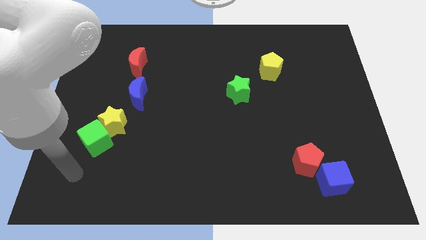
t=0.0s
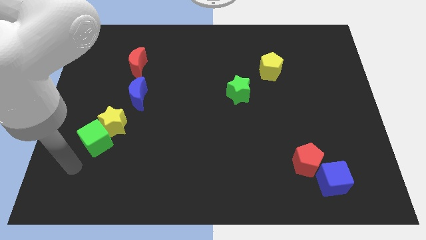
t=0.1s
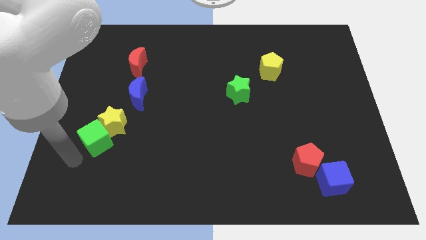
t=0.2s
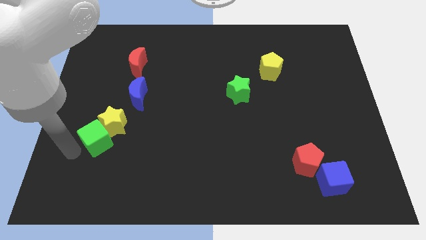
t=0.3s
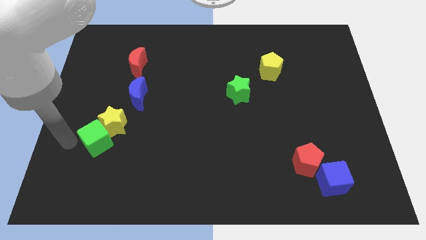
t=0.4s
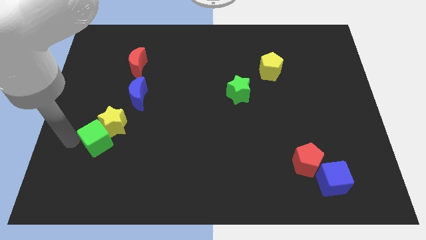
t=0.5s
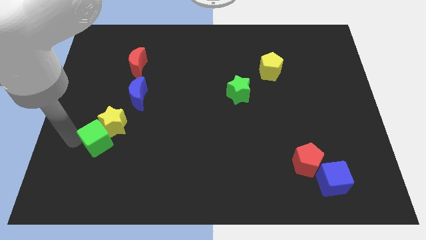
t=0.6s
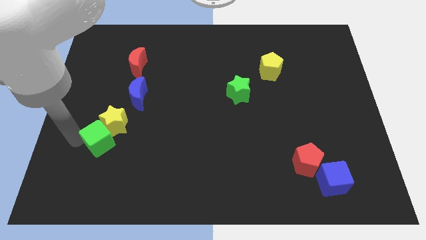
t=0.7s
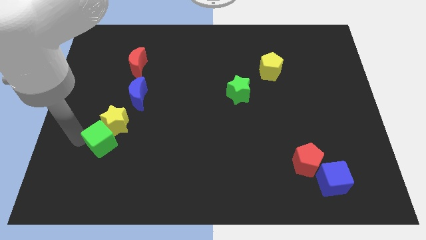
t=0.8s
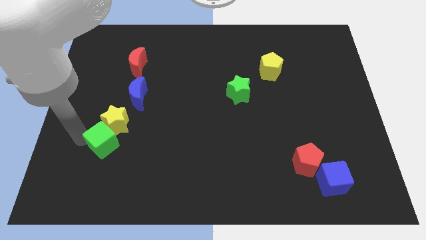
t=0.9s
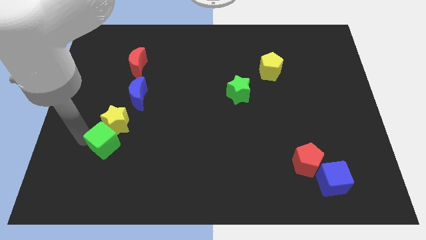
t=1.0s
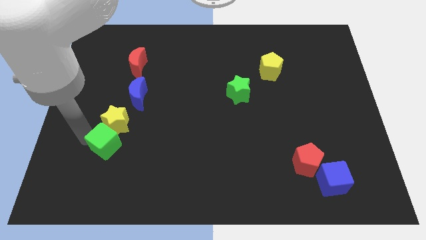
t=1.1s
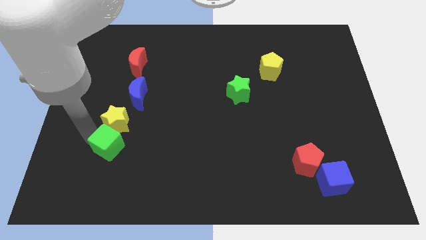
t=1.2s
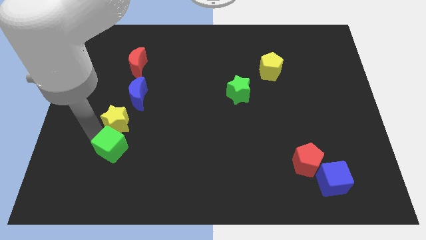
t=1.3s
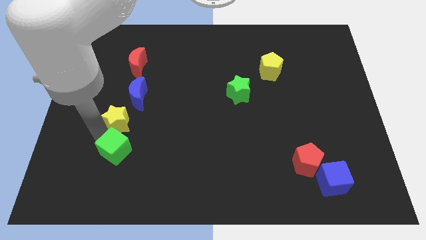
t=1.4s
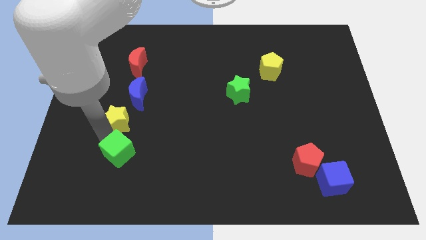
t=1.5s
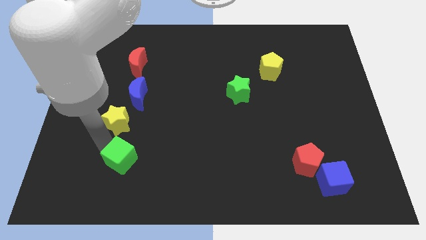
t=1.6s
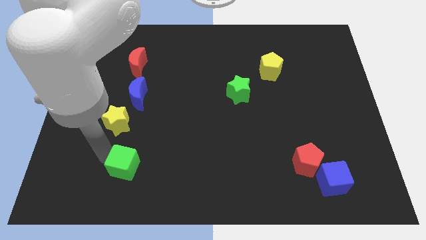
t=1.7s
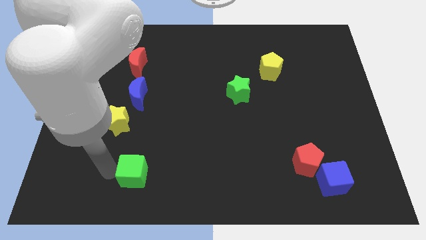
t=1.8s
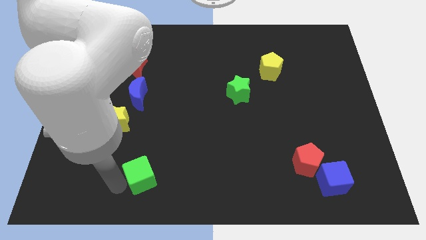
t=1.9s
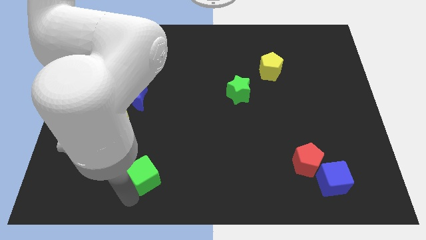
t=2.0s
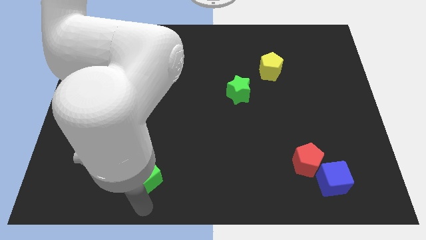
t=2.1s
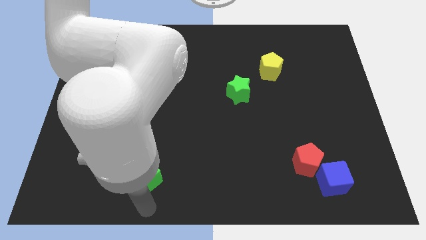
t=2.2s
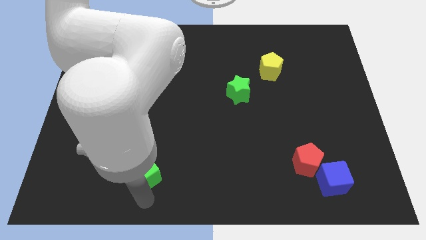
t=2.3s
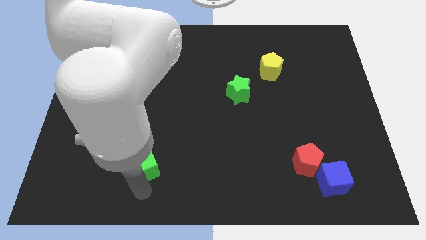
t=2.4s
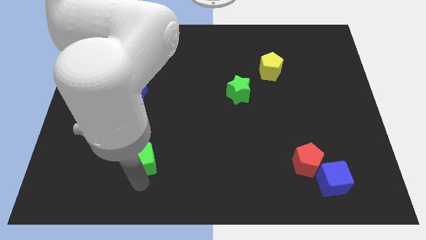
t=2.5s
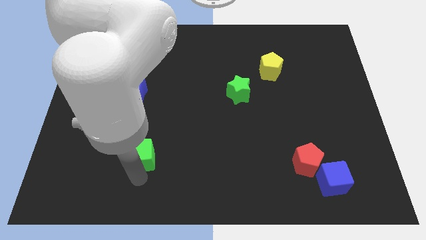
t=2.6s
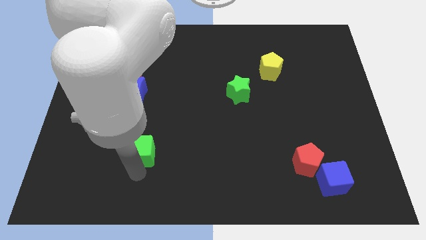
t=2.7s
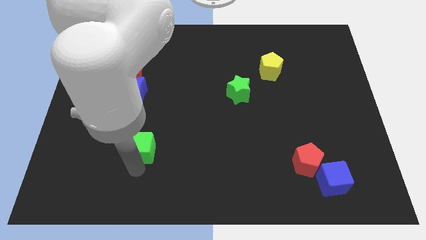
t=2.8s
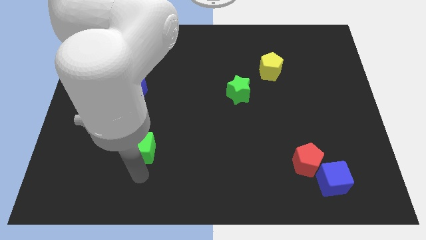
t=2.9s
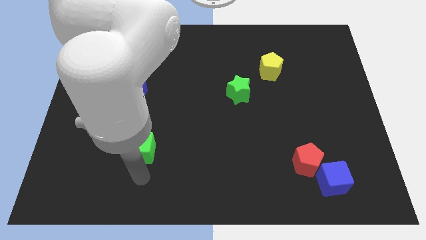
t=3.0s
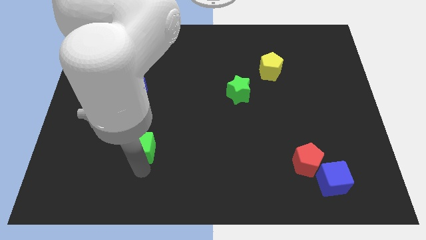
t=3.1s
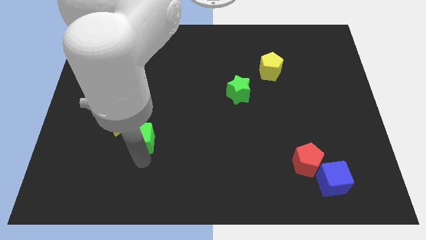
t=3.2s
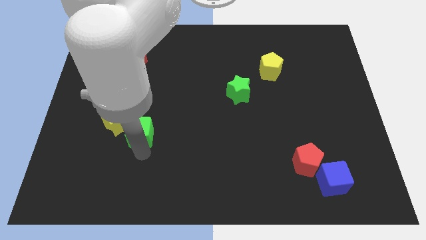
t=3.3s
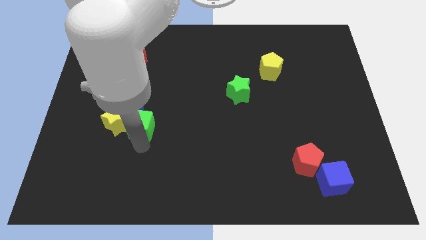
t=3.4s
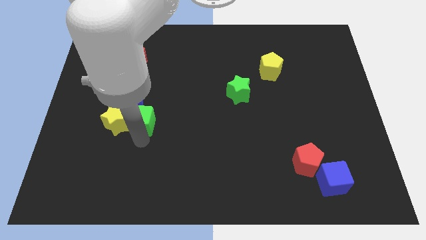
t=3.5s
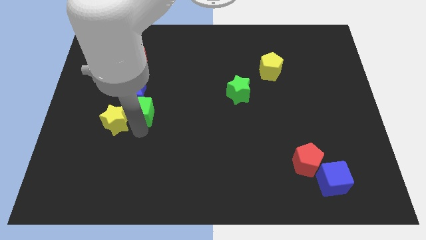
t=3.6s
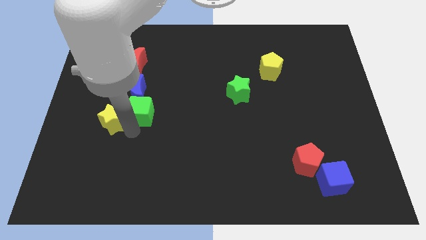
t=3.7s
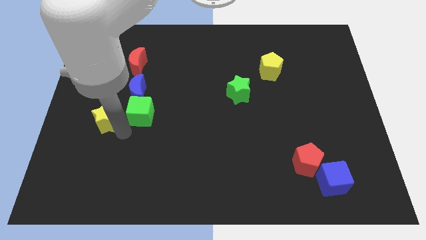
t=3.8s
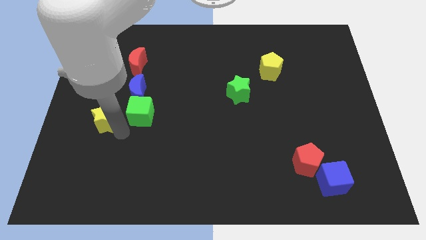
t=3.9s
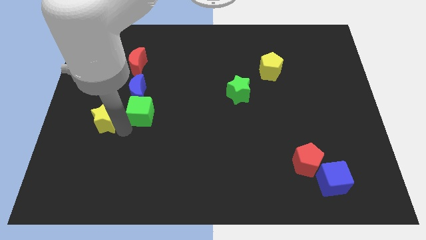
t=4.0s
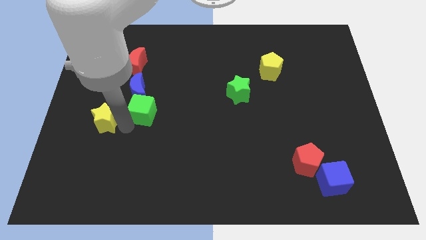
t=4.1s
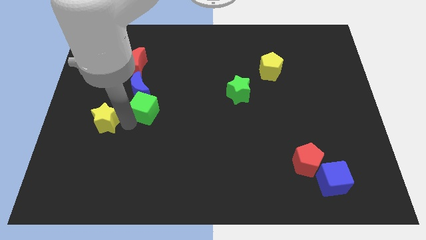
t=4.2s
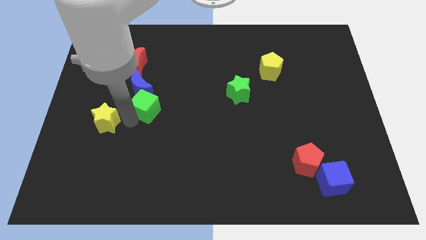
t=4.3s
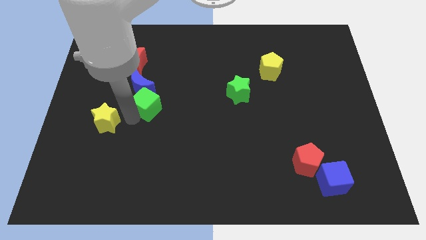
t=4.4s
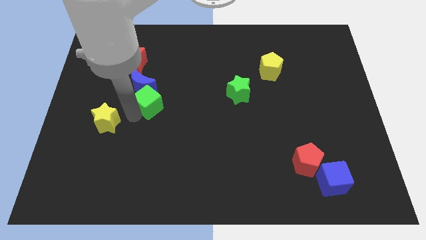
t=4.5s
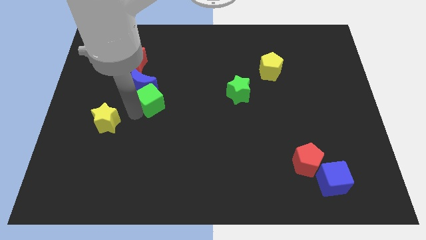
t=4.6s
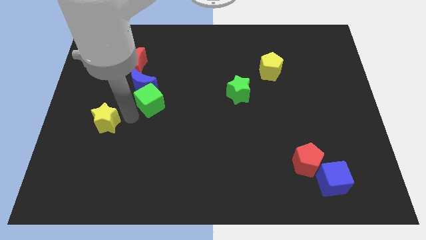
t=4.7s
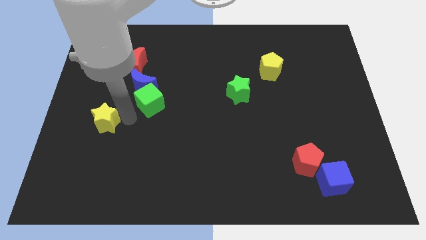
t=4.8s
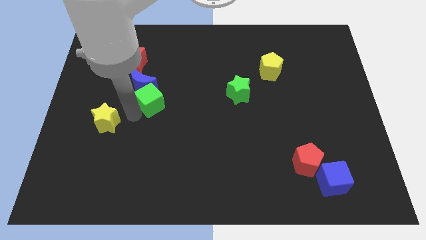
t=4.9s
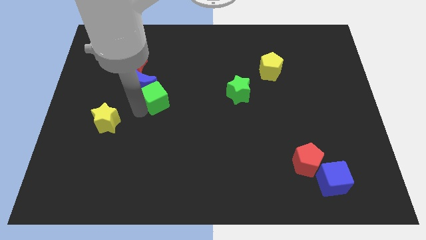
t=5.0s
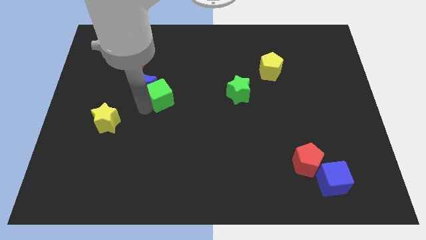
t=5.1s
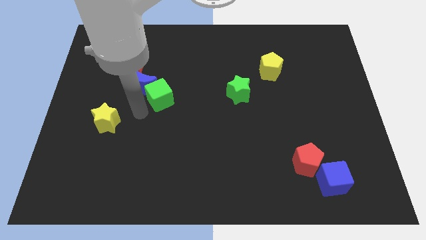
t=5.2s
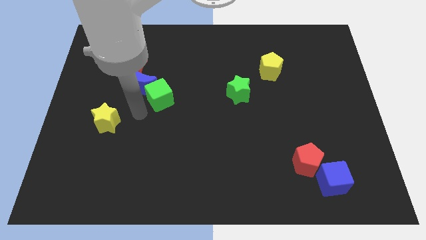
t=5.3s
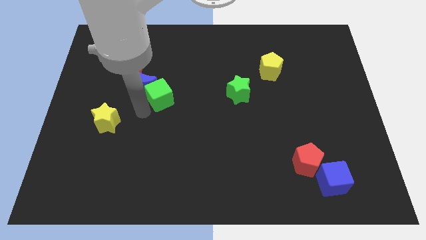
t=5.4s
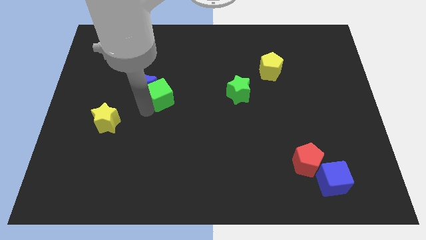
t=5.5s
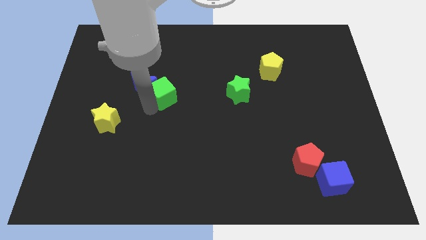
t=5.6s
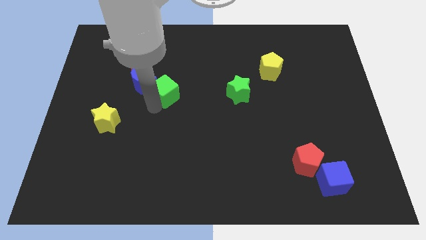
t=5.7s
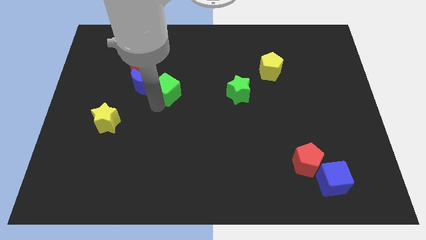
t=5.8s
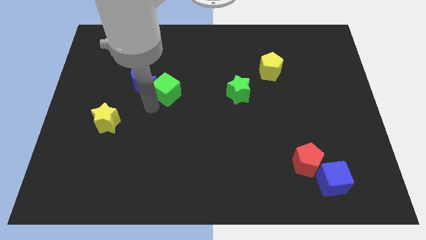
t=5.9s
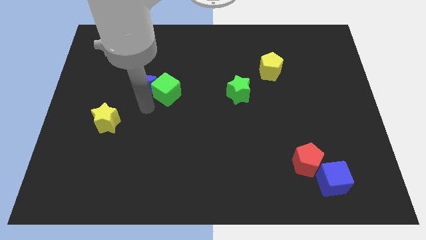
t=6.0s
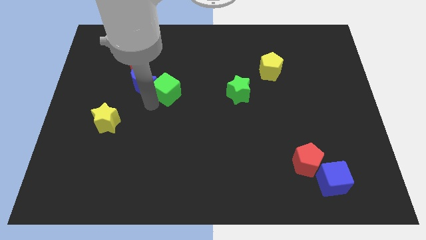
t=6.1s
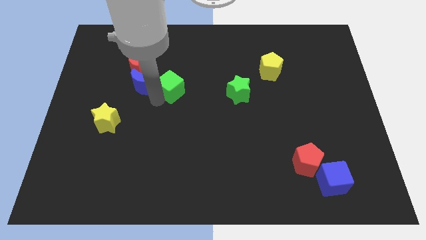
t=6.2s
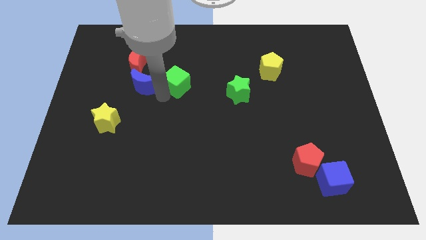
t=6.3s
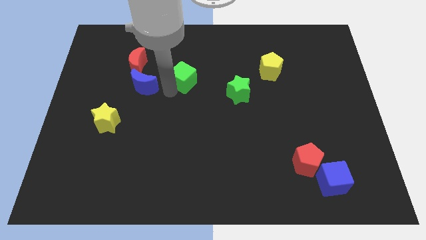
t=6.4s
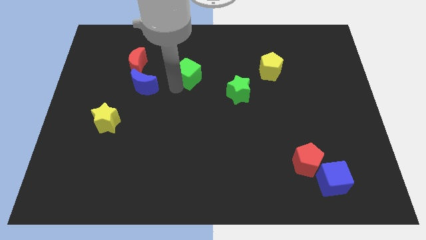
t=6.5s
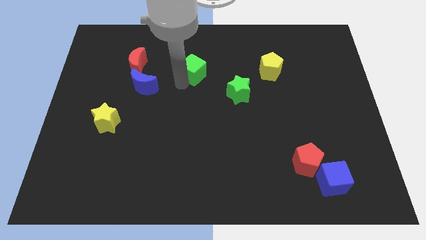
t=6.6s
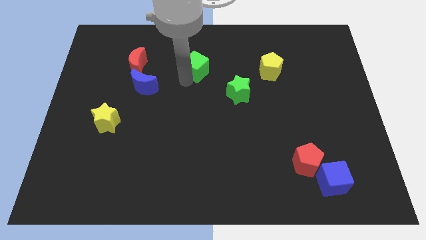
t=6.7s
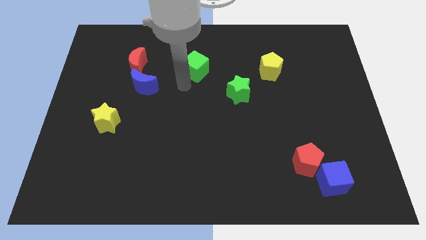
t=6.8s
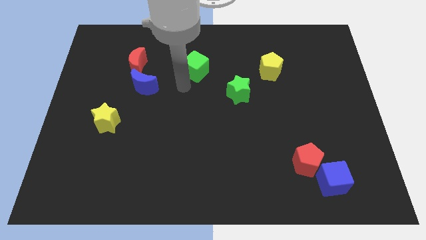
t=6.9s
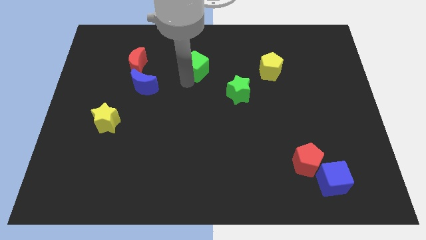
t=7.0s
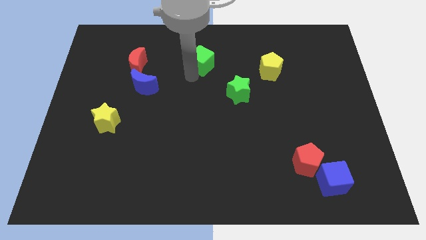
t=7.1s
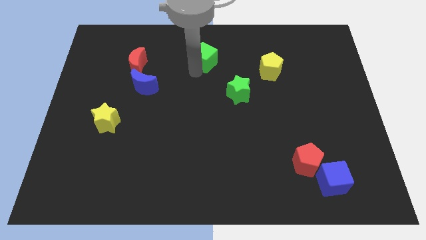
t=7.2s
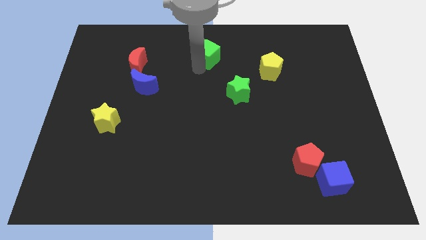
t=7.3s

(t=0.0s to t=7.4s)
slide the green cube to the top
